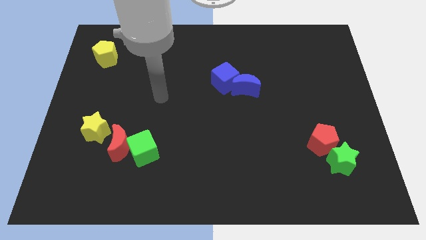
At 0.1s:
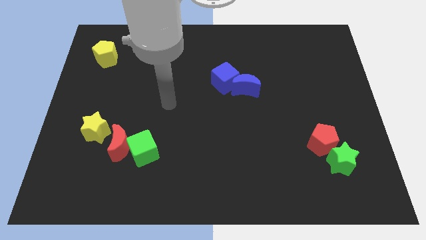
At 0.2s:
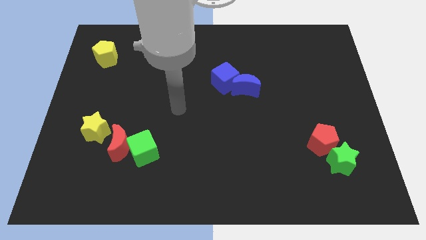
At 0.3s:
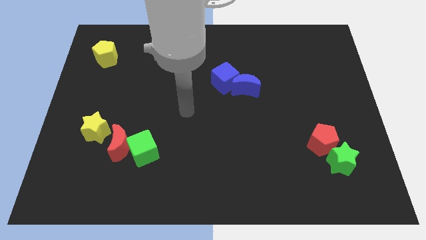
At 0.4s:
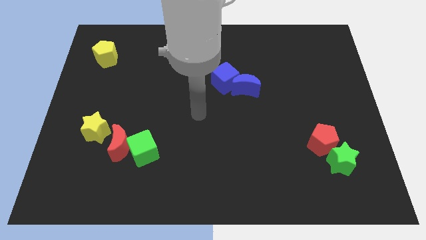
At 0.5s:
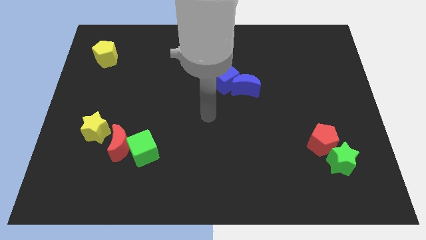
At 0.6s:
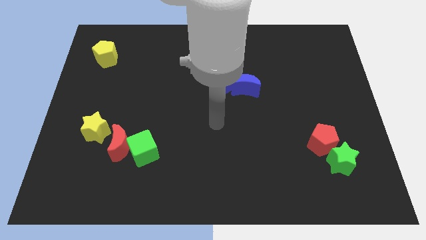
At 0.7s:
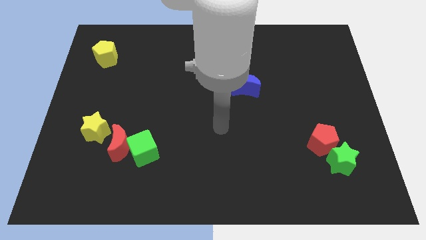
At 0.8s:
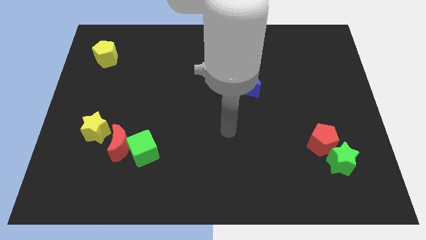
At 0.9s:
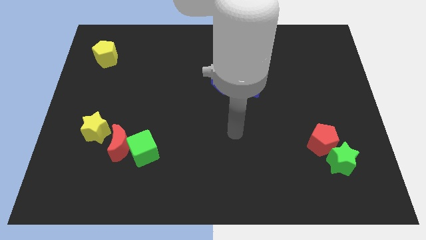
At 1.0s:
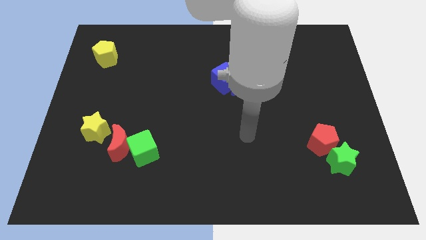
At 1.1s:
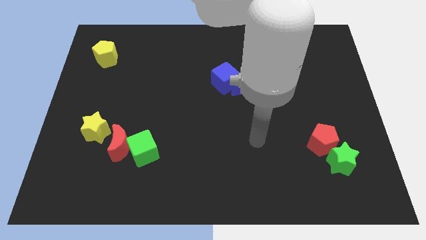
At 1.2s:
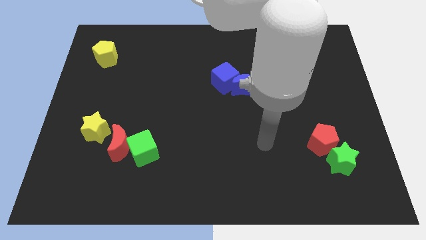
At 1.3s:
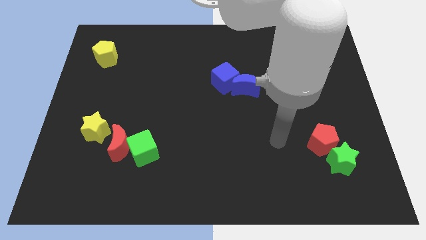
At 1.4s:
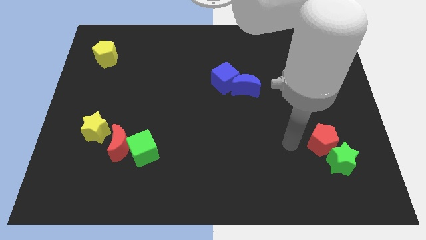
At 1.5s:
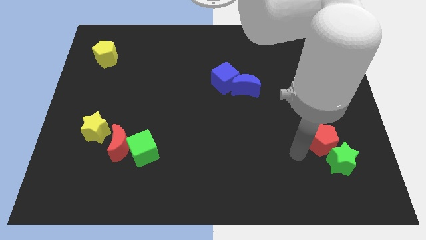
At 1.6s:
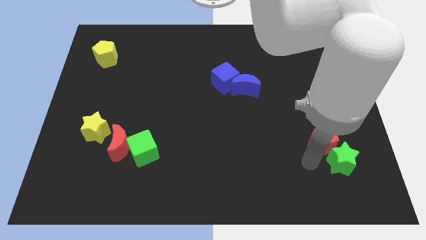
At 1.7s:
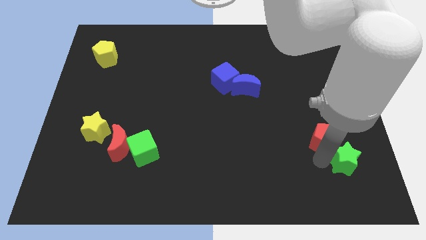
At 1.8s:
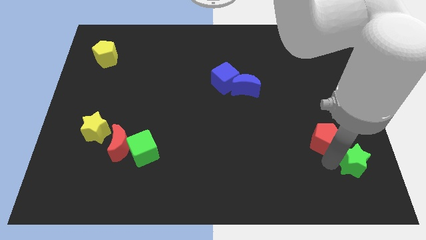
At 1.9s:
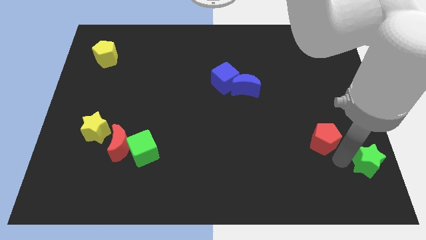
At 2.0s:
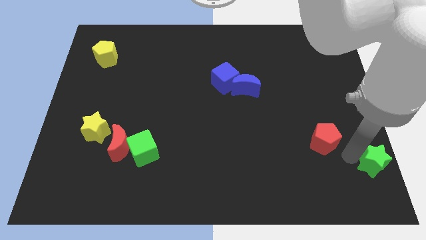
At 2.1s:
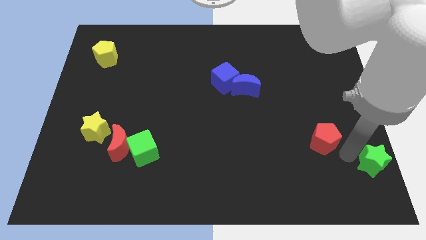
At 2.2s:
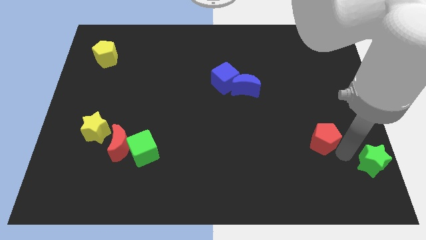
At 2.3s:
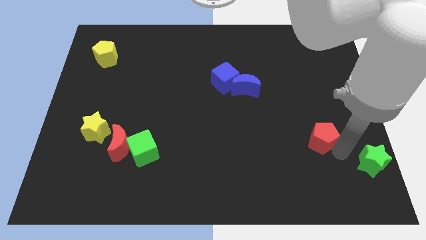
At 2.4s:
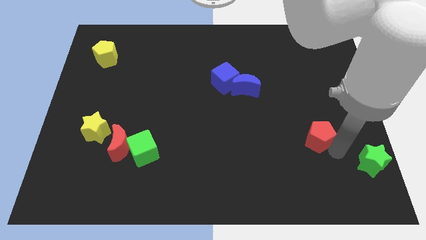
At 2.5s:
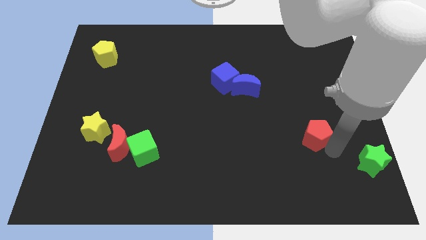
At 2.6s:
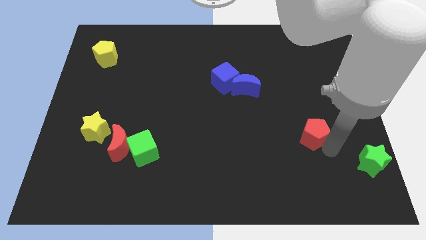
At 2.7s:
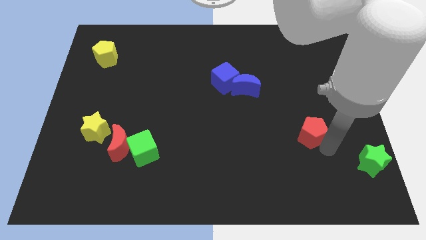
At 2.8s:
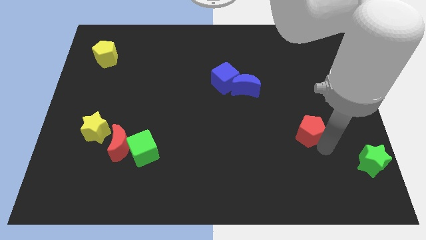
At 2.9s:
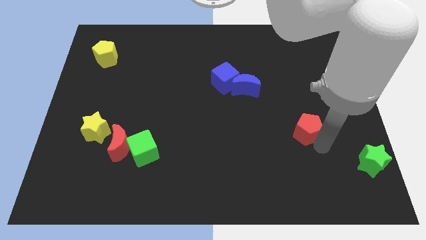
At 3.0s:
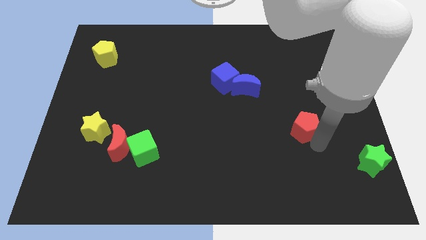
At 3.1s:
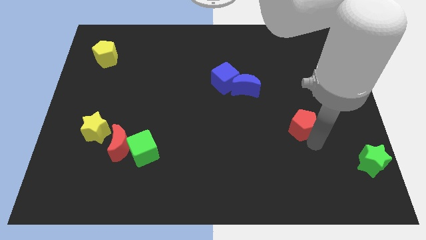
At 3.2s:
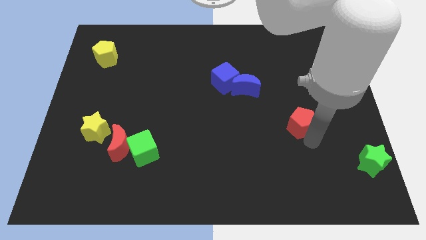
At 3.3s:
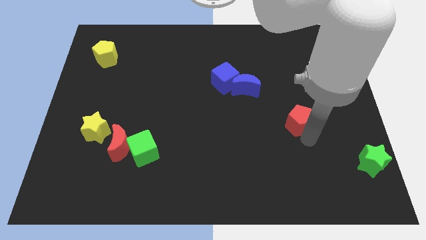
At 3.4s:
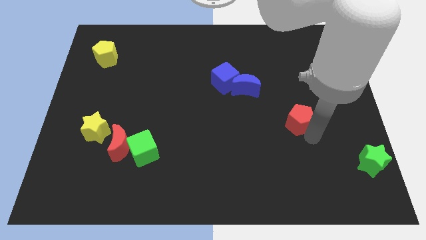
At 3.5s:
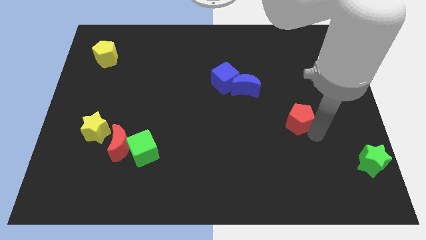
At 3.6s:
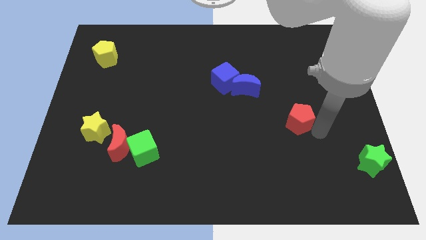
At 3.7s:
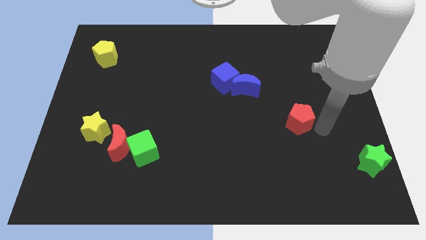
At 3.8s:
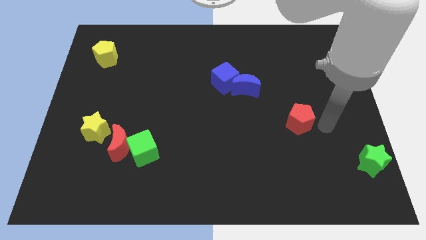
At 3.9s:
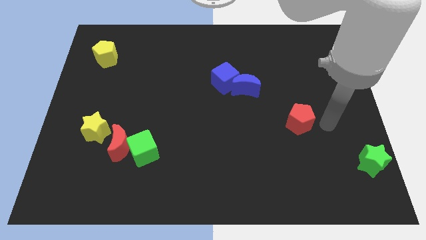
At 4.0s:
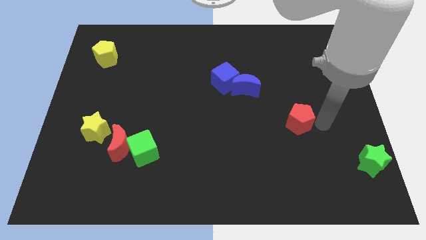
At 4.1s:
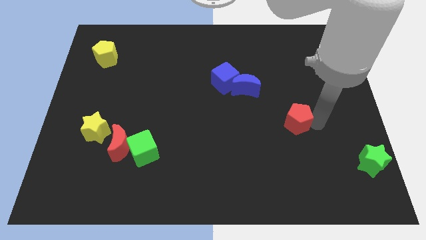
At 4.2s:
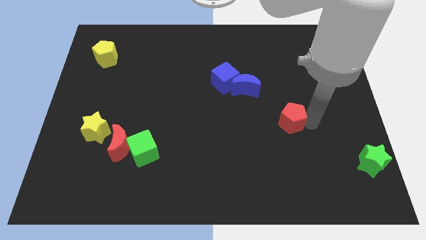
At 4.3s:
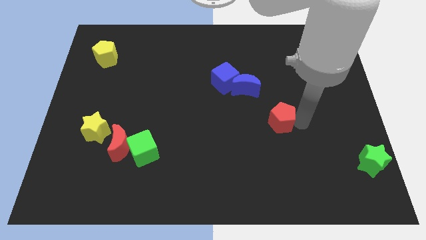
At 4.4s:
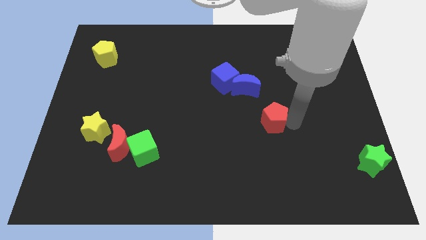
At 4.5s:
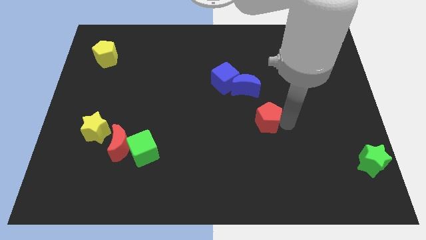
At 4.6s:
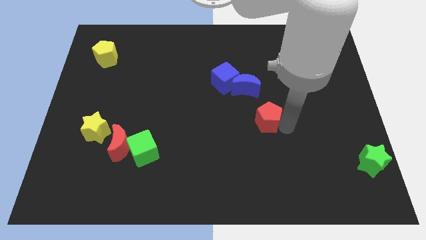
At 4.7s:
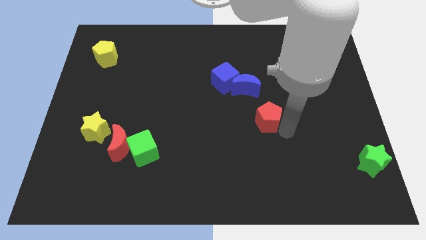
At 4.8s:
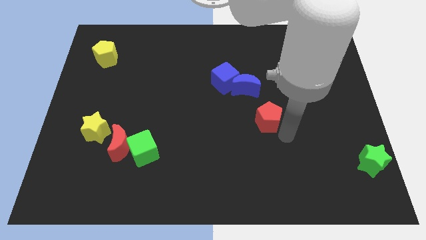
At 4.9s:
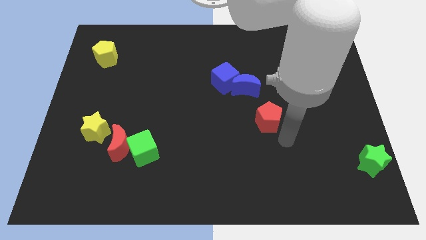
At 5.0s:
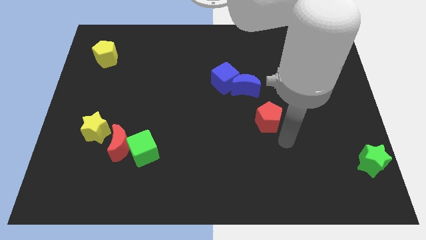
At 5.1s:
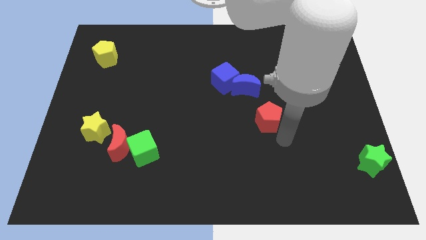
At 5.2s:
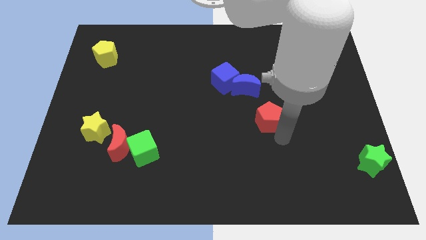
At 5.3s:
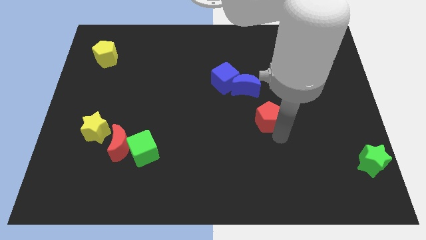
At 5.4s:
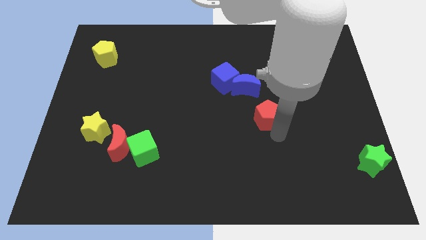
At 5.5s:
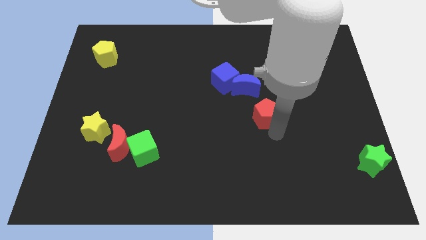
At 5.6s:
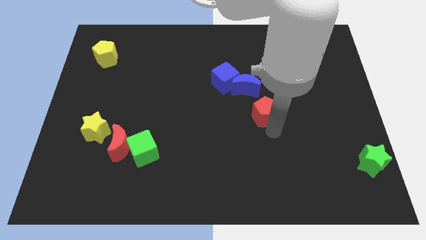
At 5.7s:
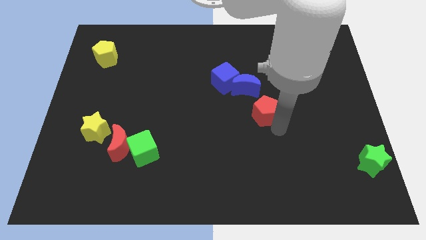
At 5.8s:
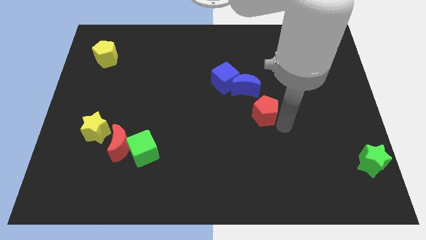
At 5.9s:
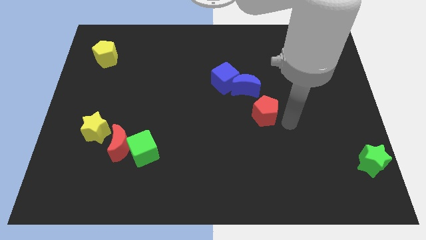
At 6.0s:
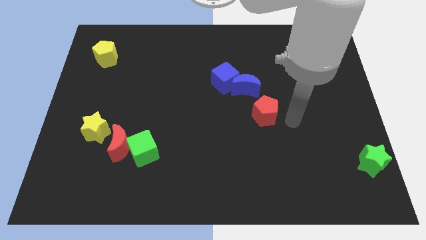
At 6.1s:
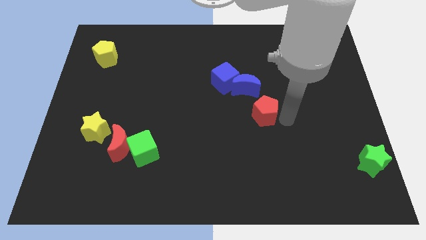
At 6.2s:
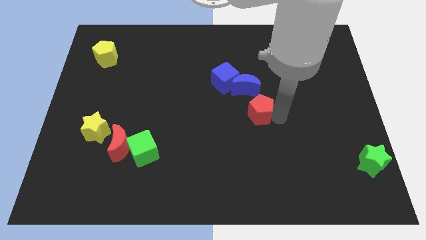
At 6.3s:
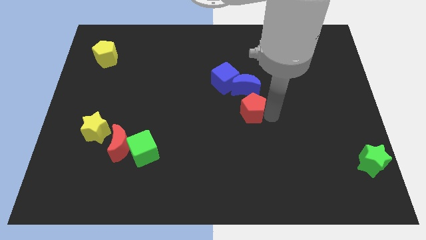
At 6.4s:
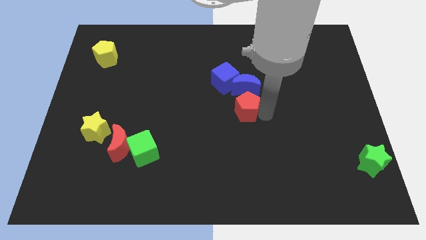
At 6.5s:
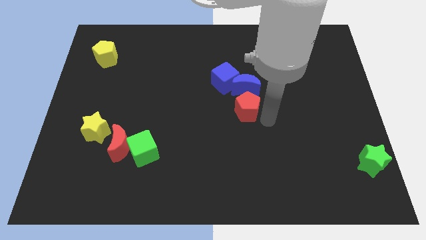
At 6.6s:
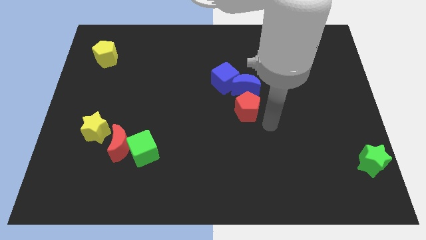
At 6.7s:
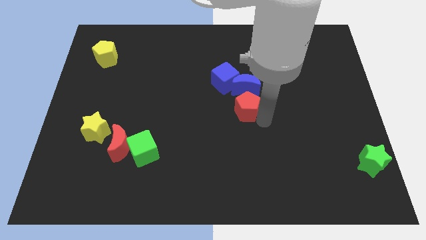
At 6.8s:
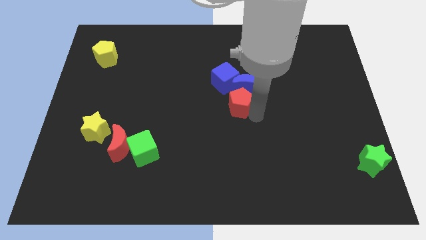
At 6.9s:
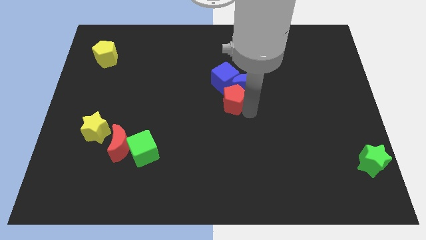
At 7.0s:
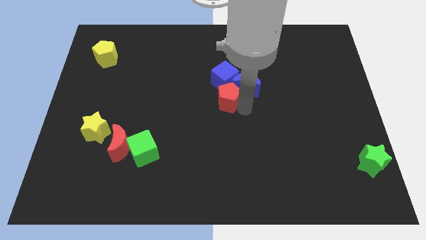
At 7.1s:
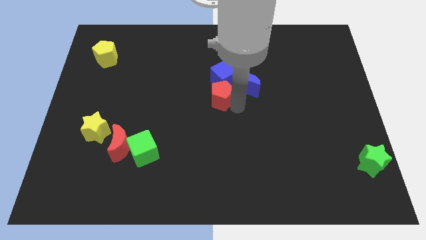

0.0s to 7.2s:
put the red pentagon to the blue cube
